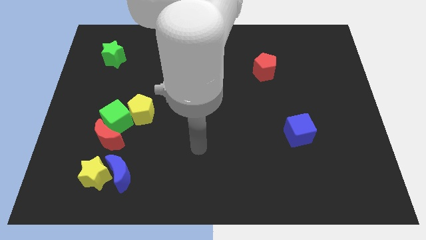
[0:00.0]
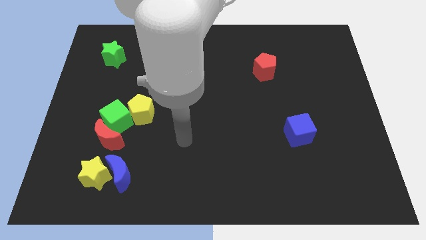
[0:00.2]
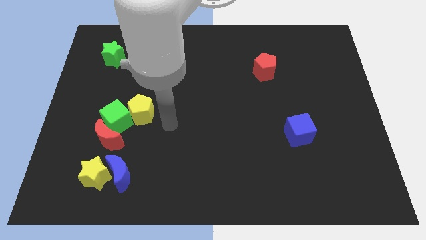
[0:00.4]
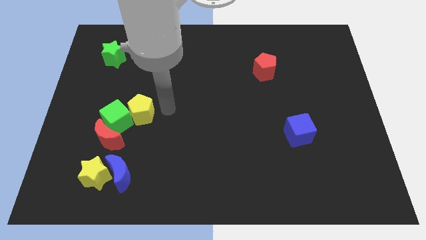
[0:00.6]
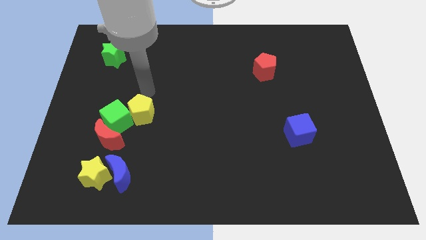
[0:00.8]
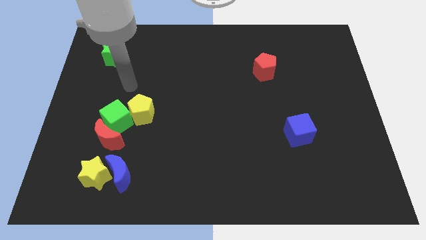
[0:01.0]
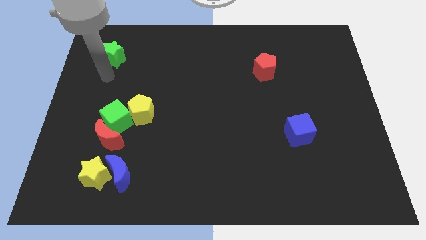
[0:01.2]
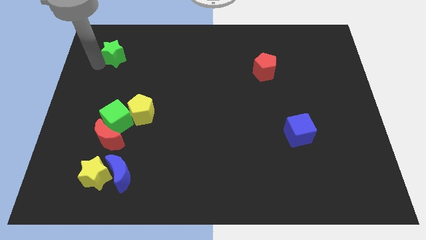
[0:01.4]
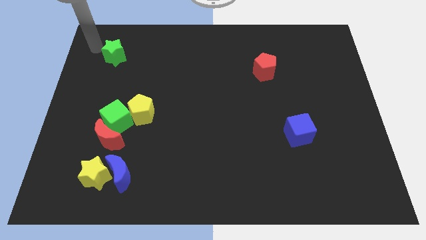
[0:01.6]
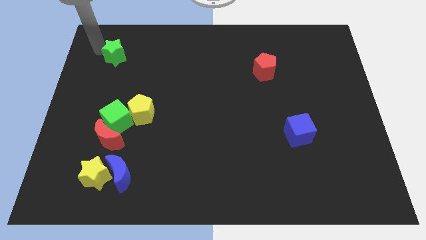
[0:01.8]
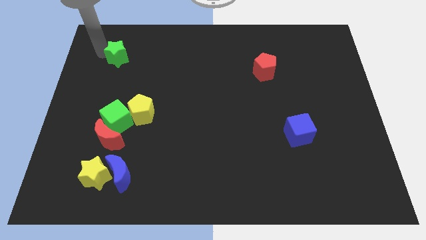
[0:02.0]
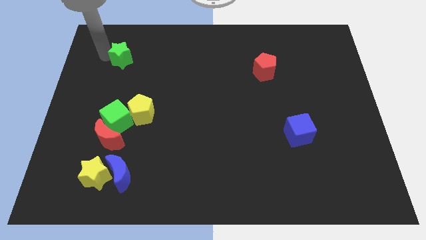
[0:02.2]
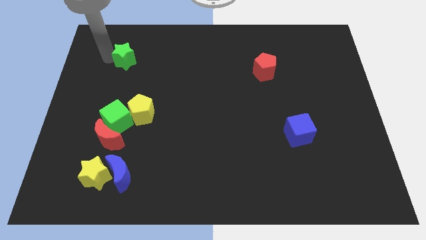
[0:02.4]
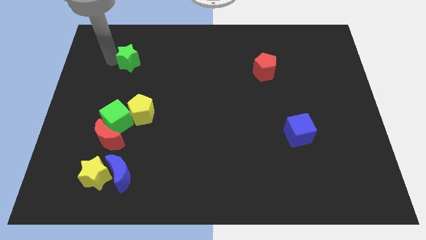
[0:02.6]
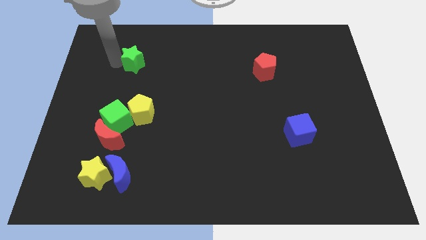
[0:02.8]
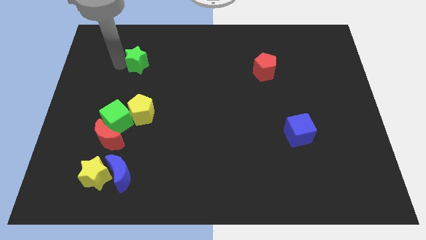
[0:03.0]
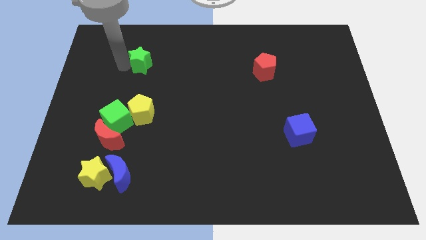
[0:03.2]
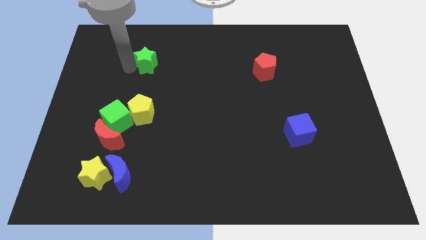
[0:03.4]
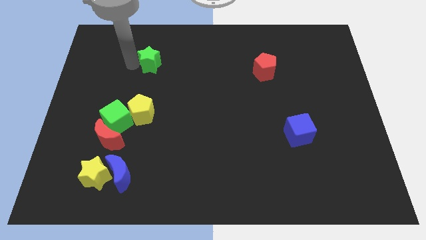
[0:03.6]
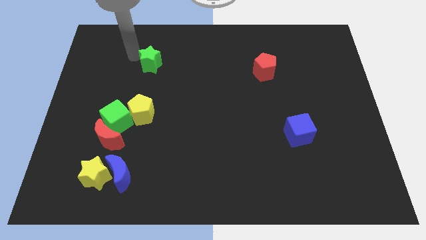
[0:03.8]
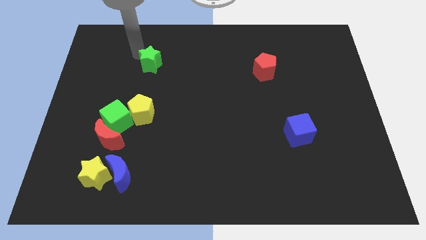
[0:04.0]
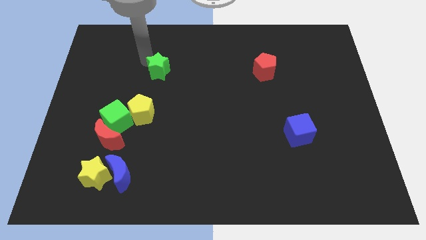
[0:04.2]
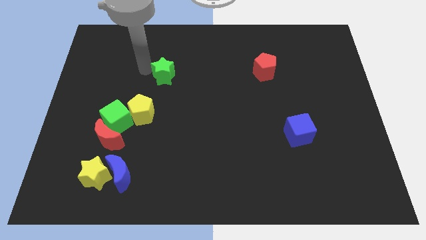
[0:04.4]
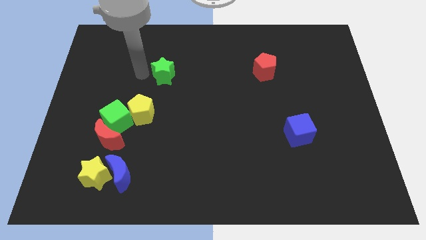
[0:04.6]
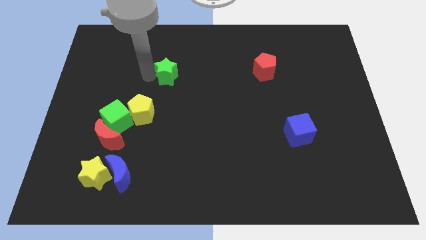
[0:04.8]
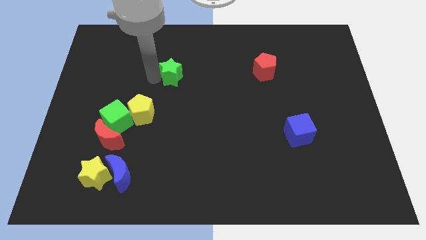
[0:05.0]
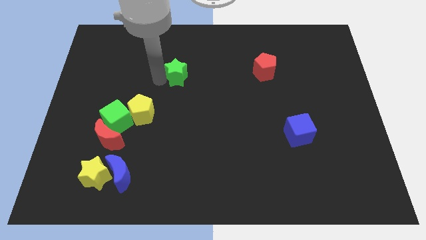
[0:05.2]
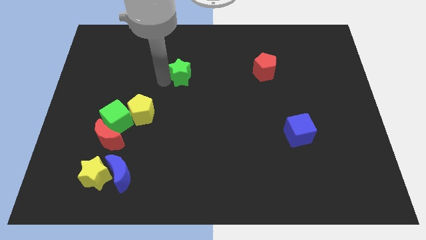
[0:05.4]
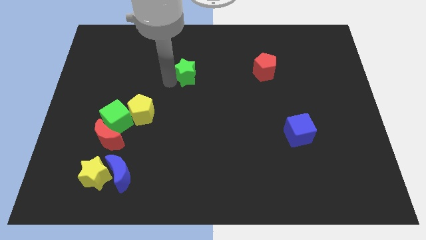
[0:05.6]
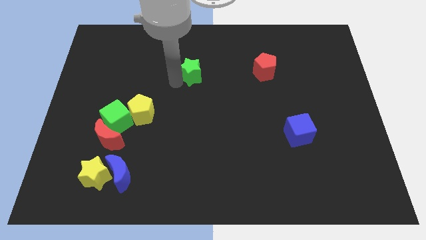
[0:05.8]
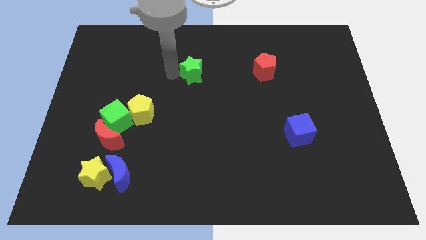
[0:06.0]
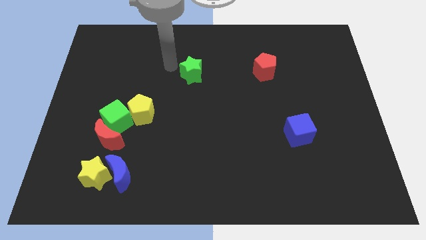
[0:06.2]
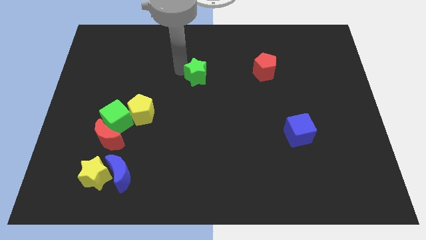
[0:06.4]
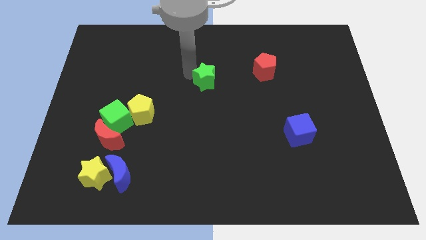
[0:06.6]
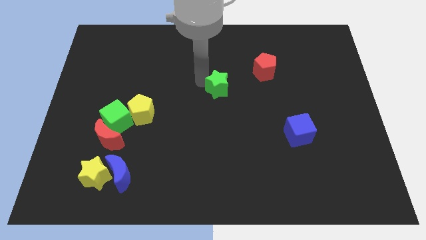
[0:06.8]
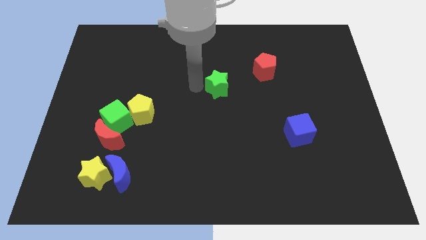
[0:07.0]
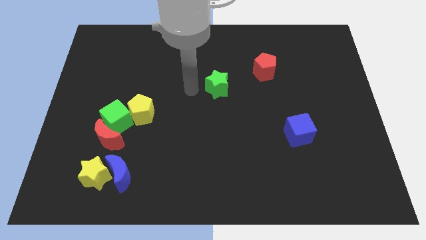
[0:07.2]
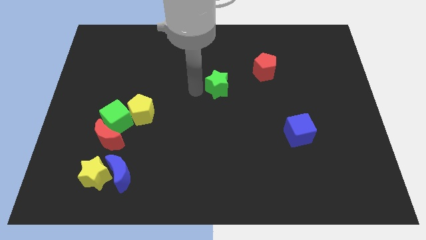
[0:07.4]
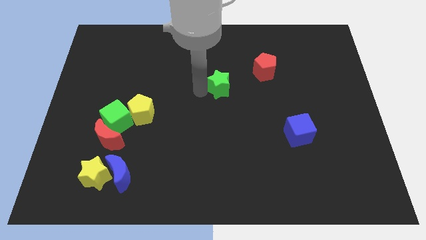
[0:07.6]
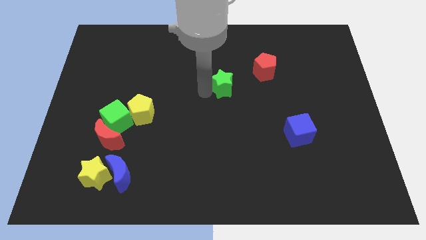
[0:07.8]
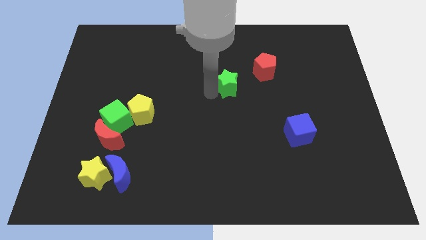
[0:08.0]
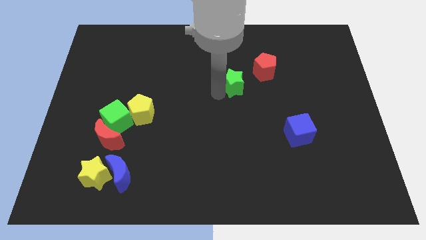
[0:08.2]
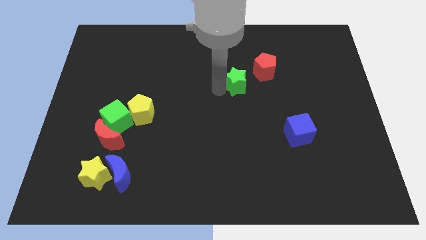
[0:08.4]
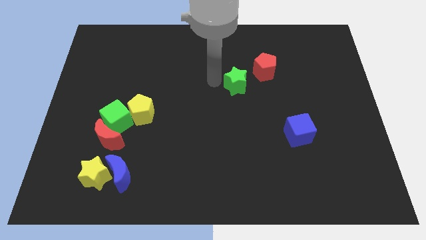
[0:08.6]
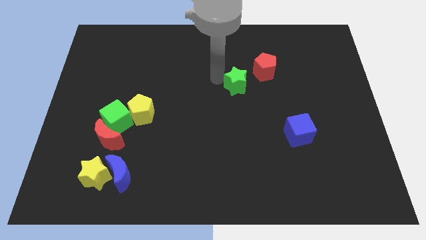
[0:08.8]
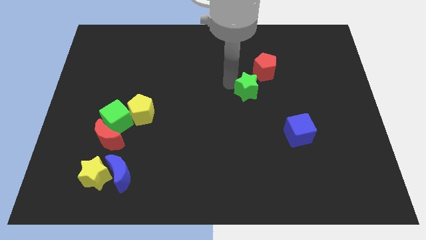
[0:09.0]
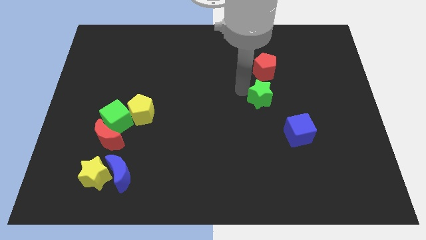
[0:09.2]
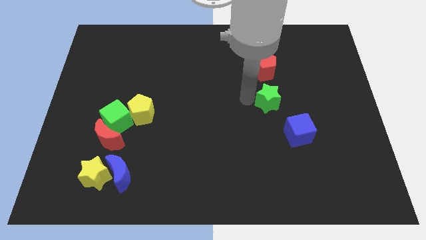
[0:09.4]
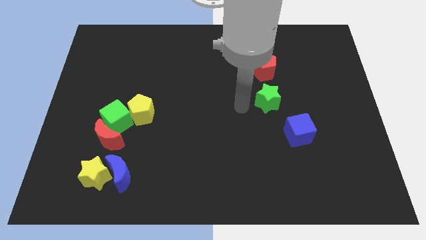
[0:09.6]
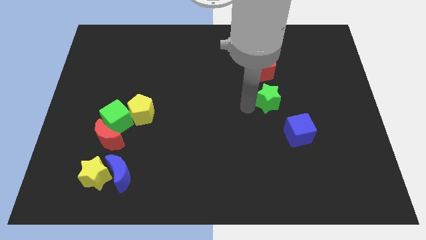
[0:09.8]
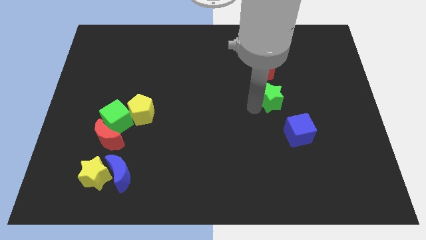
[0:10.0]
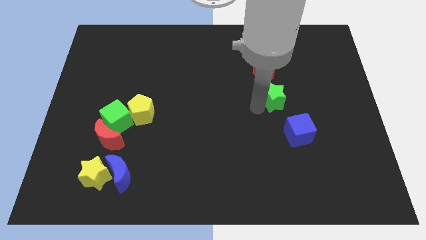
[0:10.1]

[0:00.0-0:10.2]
push the green star to the top of the blue cube

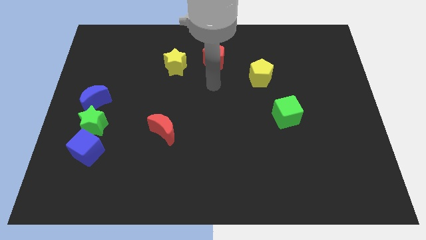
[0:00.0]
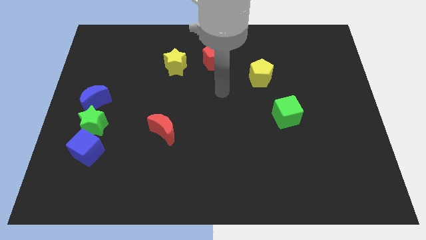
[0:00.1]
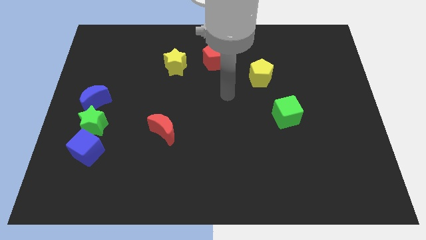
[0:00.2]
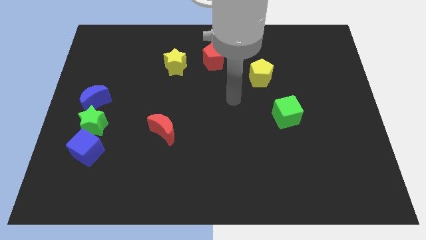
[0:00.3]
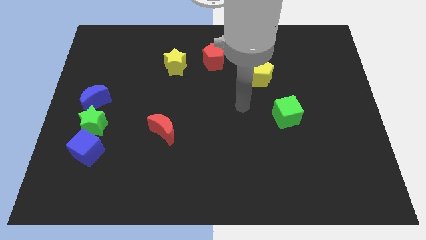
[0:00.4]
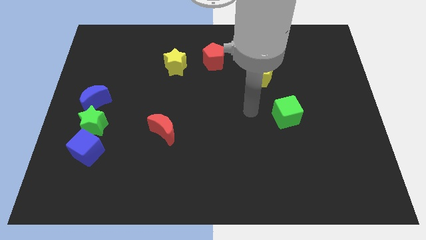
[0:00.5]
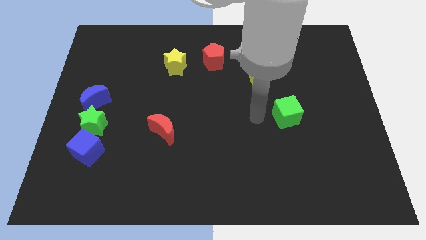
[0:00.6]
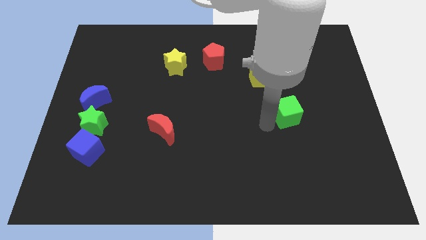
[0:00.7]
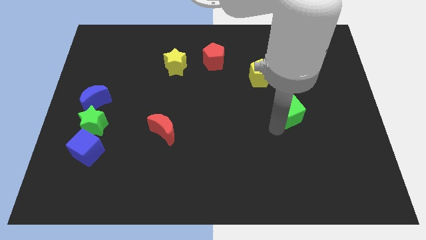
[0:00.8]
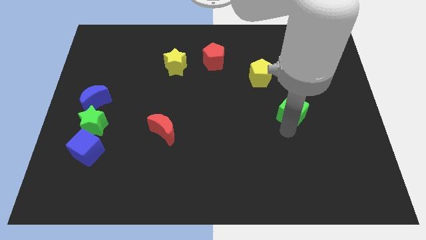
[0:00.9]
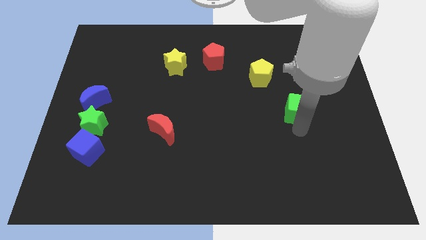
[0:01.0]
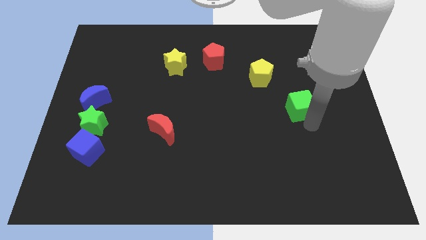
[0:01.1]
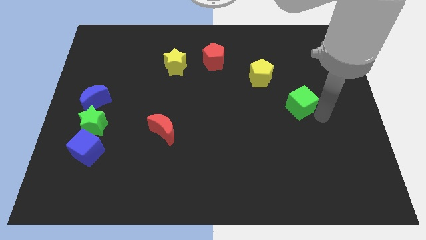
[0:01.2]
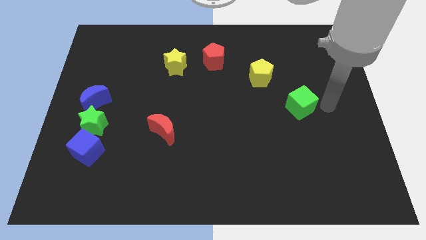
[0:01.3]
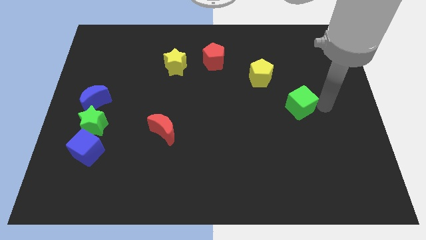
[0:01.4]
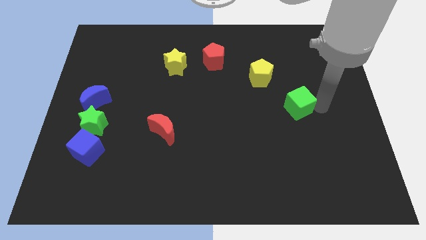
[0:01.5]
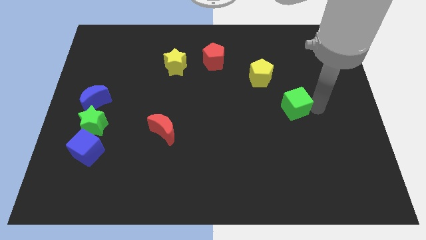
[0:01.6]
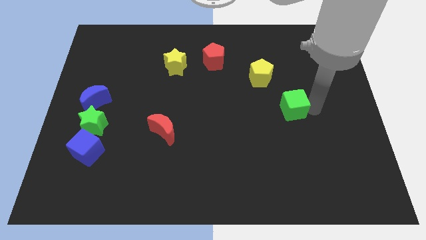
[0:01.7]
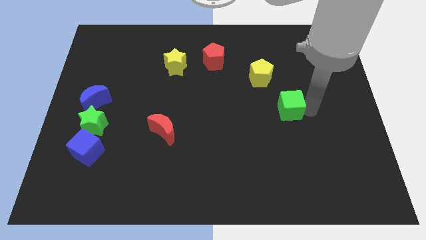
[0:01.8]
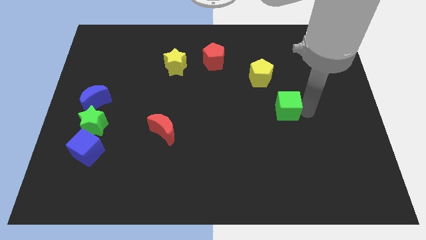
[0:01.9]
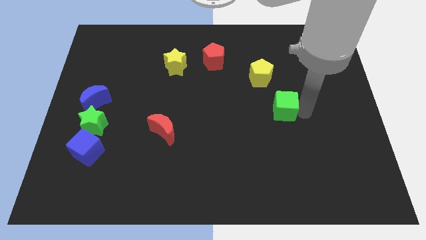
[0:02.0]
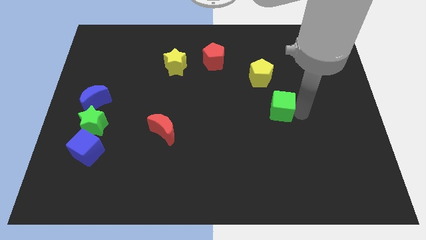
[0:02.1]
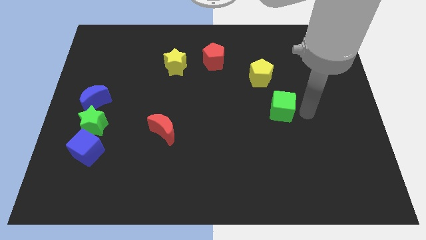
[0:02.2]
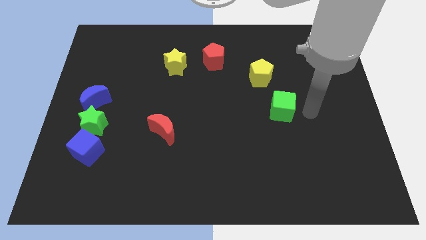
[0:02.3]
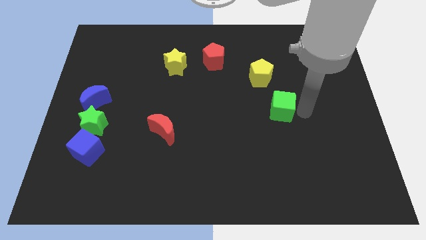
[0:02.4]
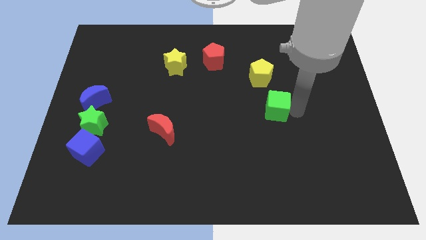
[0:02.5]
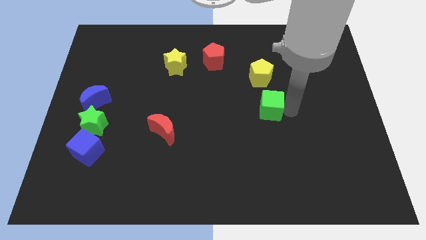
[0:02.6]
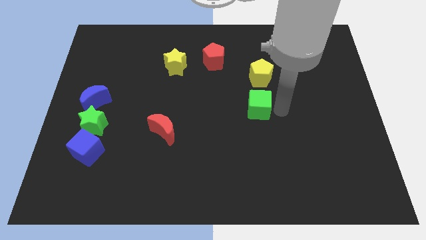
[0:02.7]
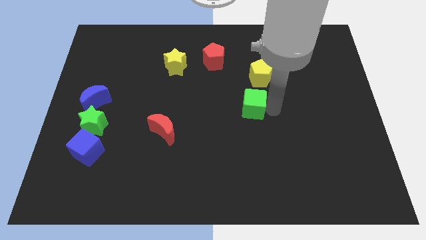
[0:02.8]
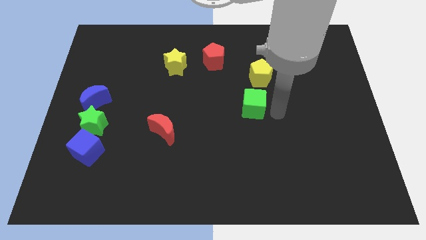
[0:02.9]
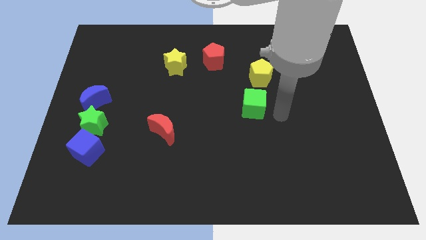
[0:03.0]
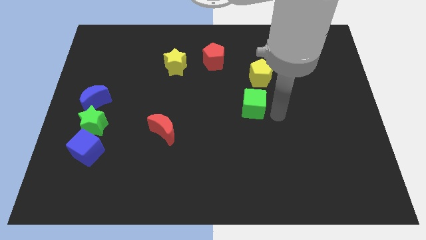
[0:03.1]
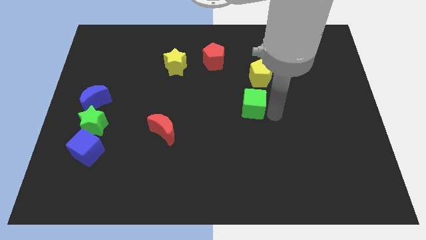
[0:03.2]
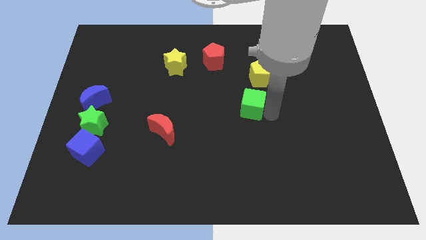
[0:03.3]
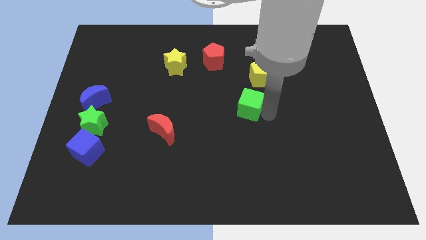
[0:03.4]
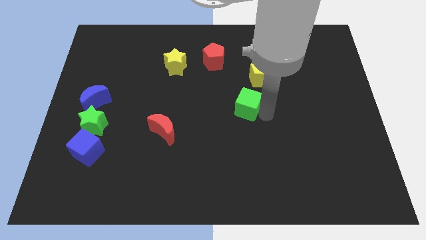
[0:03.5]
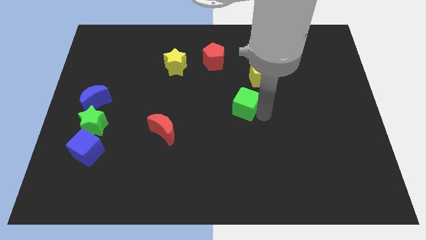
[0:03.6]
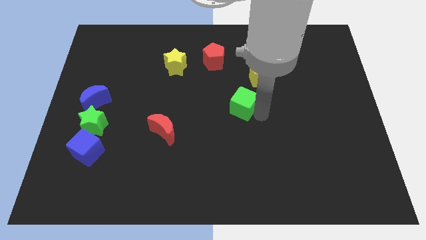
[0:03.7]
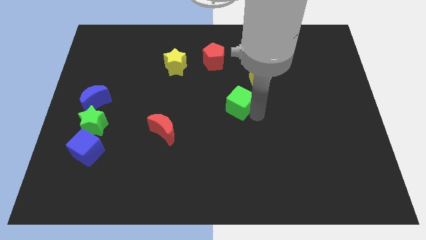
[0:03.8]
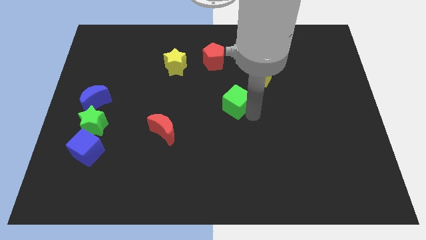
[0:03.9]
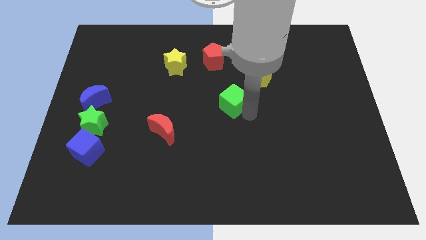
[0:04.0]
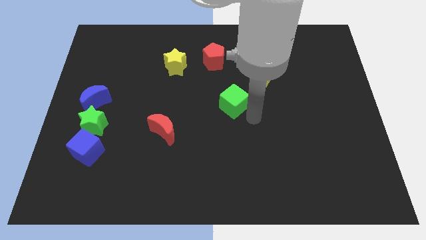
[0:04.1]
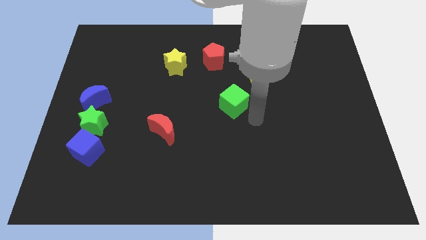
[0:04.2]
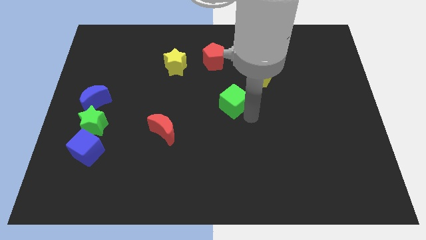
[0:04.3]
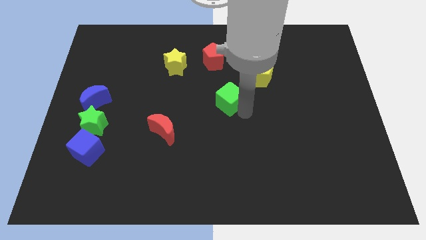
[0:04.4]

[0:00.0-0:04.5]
slide the green cube to the bottom side of the red pentagon
